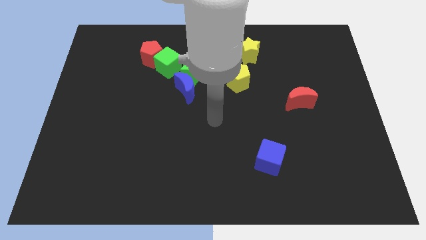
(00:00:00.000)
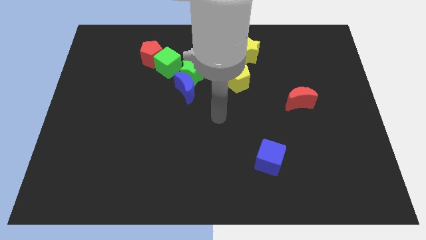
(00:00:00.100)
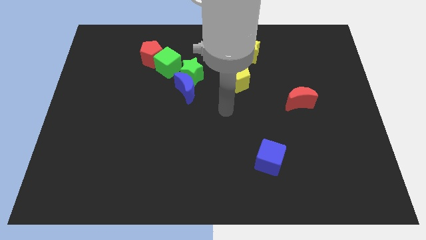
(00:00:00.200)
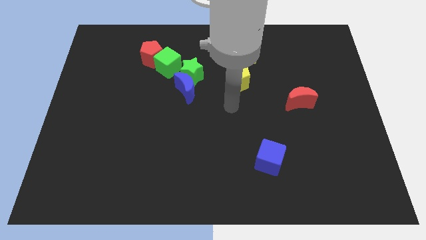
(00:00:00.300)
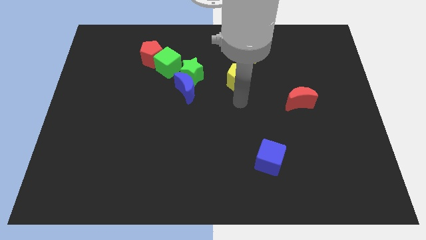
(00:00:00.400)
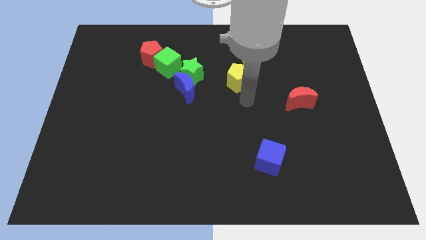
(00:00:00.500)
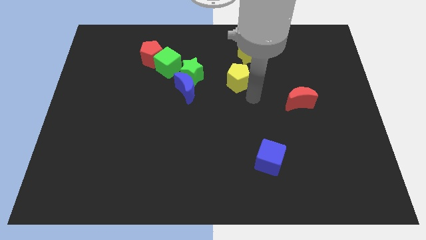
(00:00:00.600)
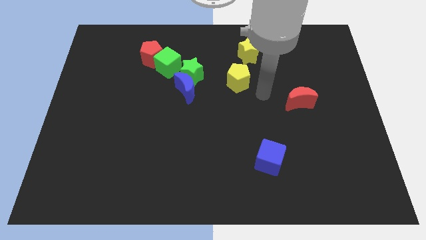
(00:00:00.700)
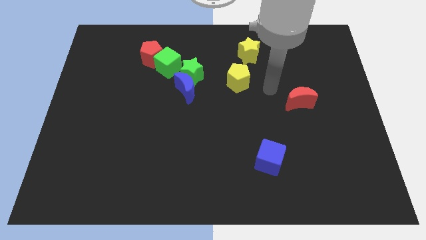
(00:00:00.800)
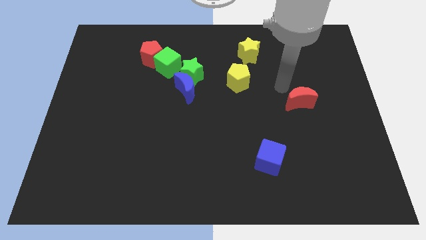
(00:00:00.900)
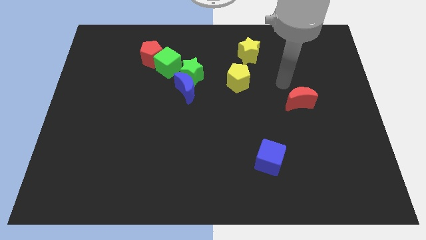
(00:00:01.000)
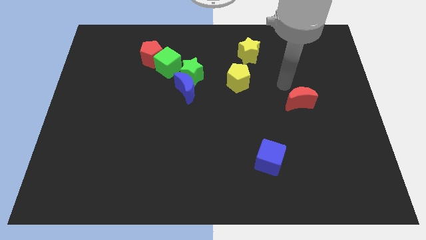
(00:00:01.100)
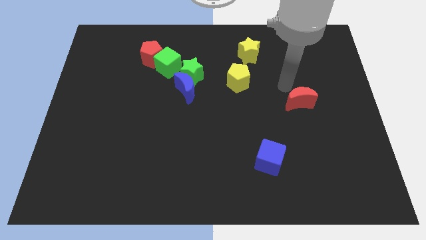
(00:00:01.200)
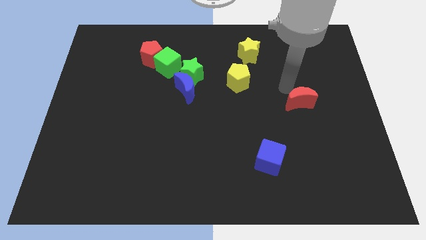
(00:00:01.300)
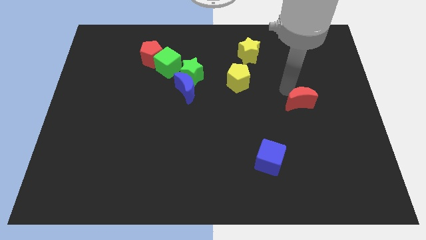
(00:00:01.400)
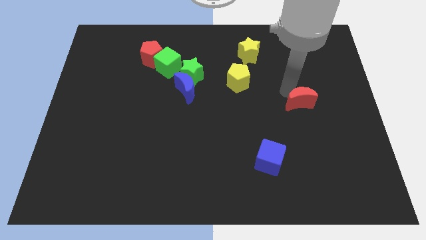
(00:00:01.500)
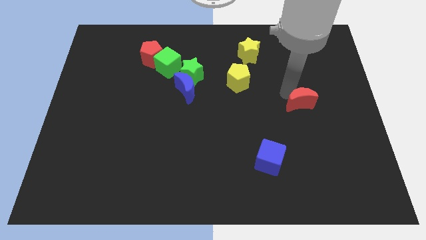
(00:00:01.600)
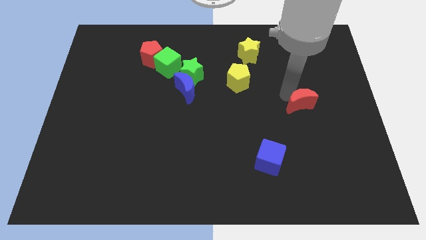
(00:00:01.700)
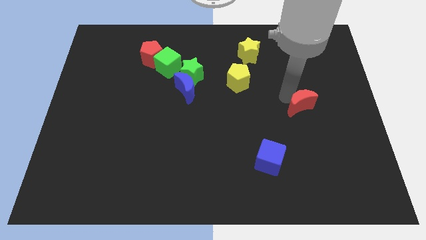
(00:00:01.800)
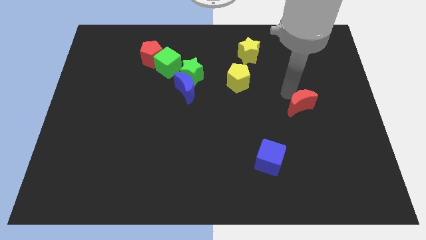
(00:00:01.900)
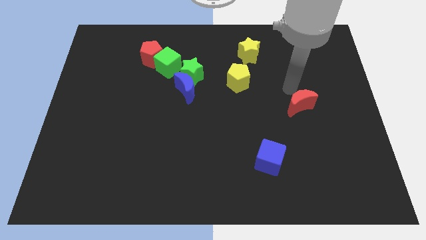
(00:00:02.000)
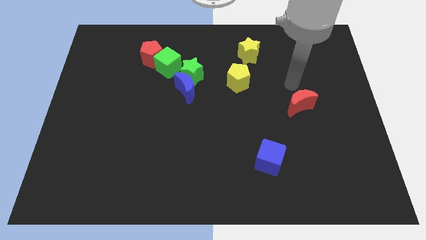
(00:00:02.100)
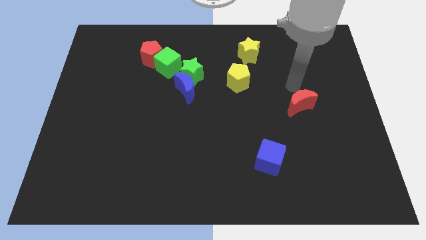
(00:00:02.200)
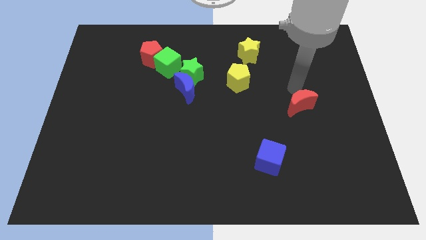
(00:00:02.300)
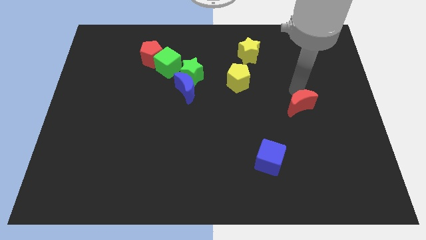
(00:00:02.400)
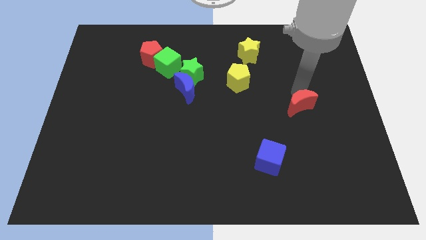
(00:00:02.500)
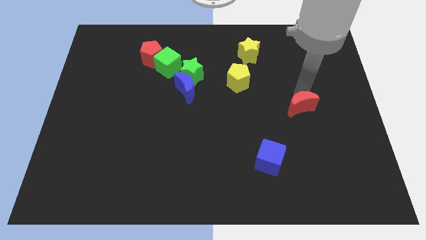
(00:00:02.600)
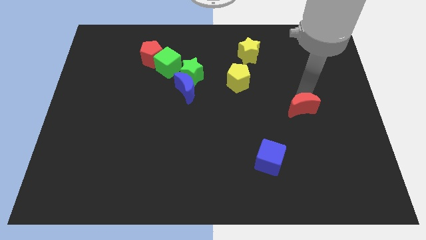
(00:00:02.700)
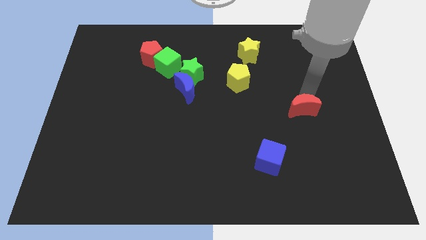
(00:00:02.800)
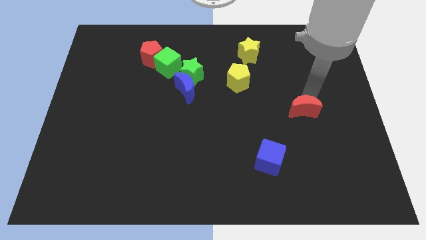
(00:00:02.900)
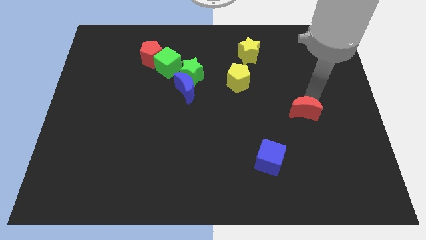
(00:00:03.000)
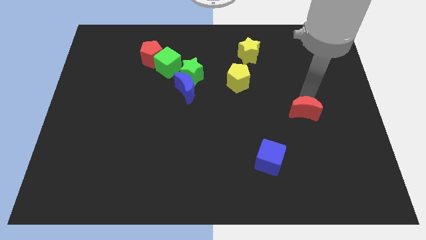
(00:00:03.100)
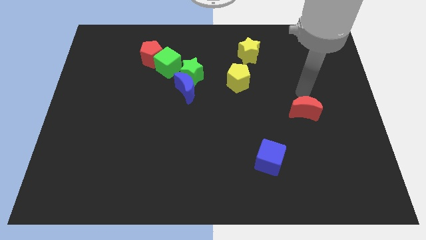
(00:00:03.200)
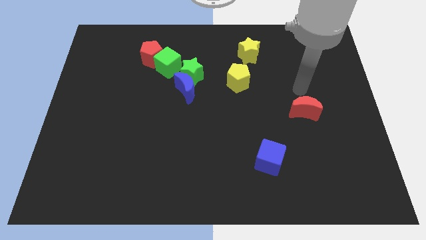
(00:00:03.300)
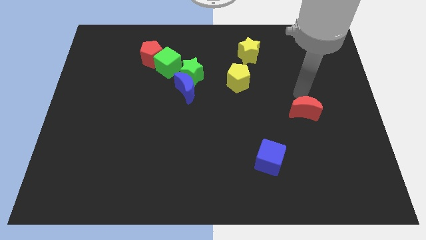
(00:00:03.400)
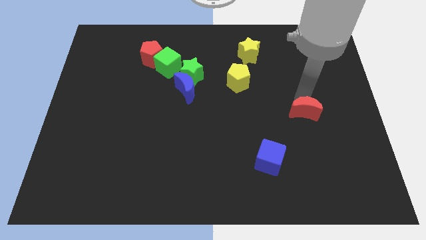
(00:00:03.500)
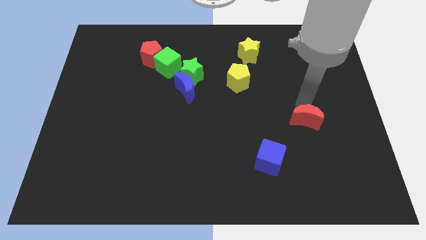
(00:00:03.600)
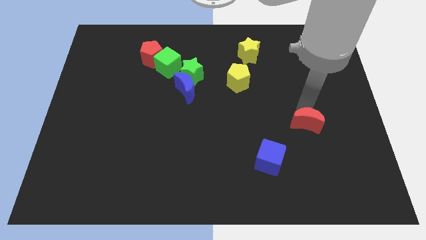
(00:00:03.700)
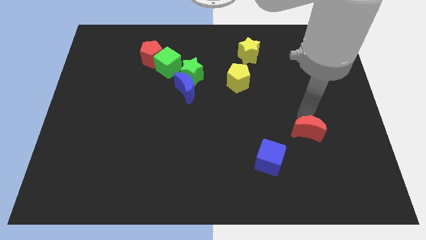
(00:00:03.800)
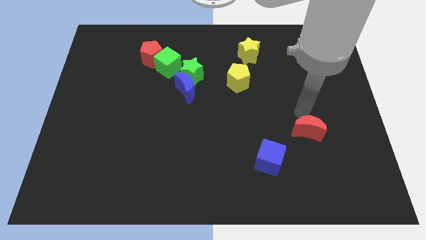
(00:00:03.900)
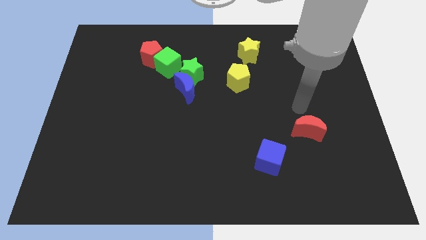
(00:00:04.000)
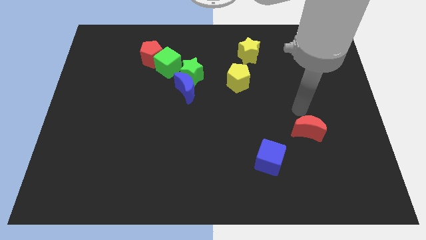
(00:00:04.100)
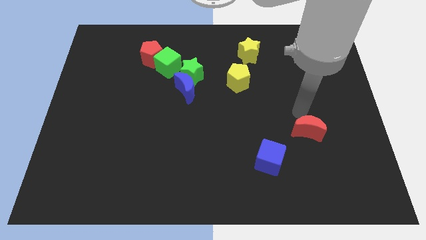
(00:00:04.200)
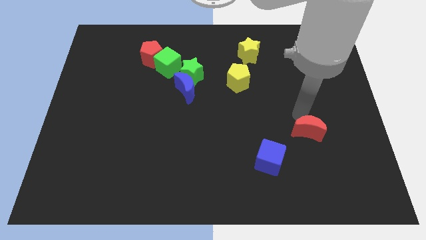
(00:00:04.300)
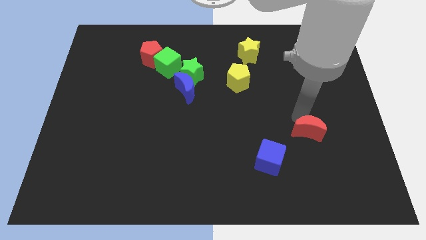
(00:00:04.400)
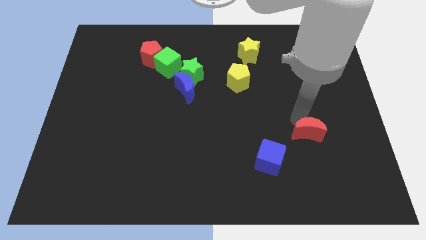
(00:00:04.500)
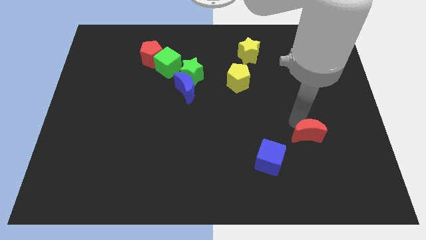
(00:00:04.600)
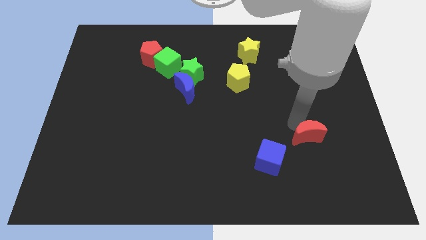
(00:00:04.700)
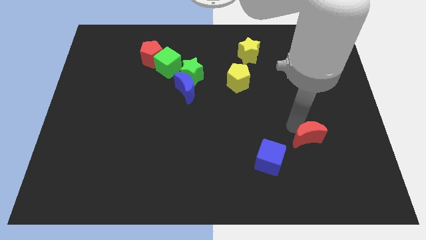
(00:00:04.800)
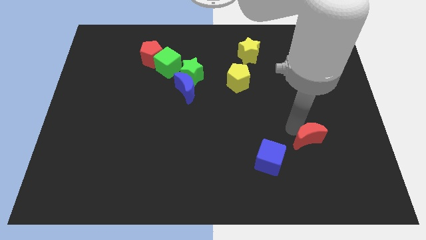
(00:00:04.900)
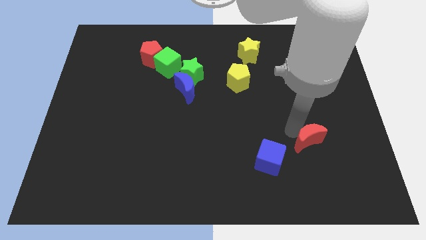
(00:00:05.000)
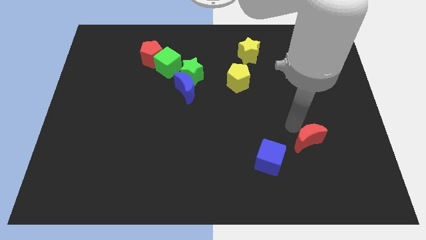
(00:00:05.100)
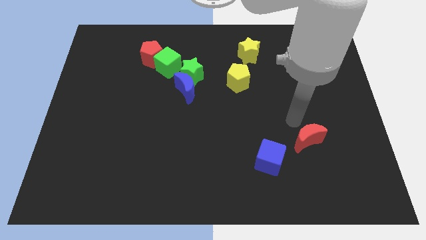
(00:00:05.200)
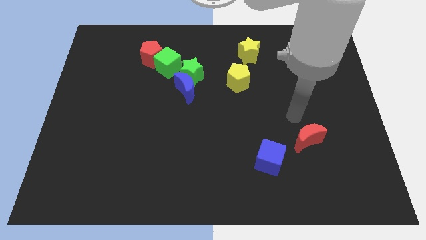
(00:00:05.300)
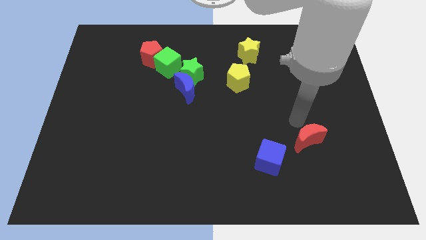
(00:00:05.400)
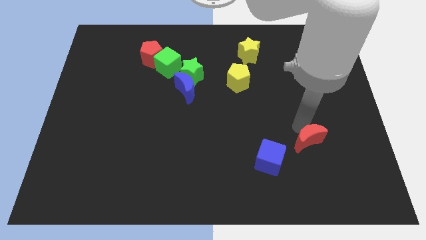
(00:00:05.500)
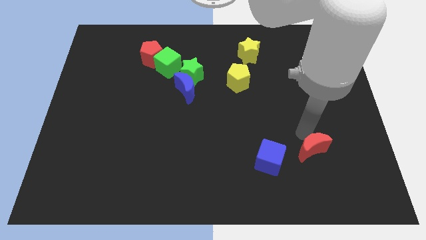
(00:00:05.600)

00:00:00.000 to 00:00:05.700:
slide the red moon right of the blue cube

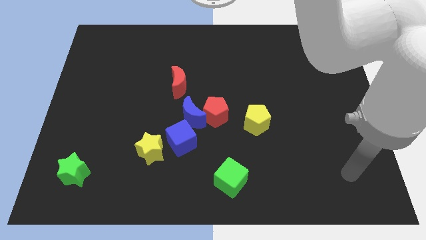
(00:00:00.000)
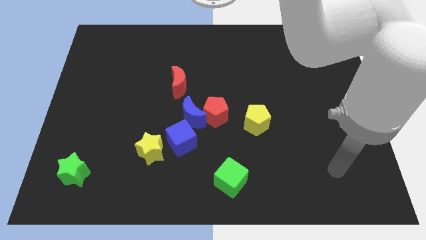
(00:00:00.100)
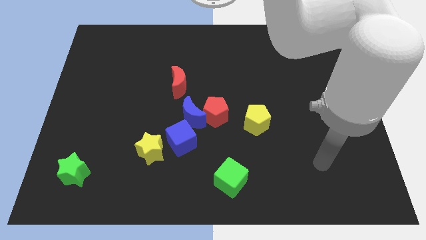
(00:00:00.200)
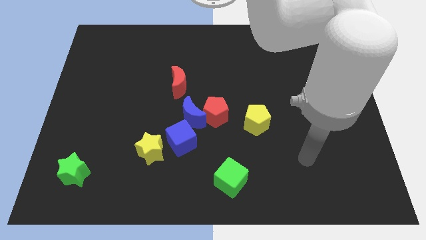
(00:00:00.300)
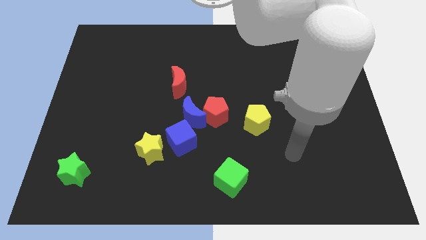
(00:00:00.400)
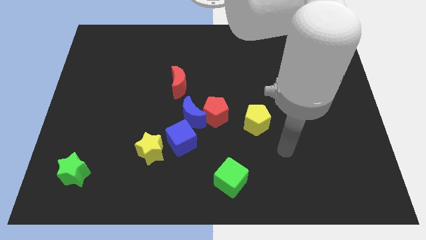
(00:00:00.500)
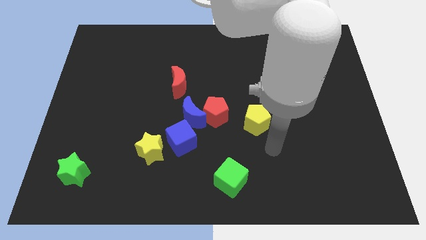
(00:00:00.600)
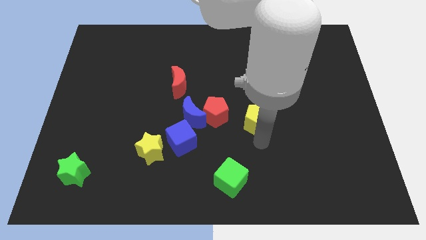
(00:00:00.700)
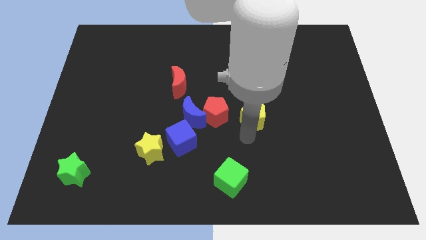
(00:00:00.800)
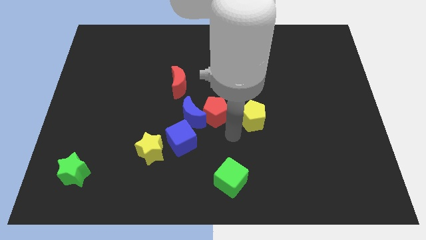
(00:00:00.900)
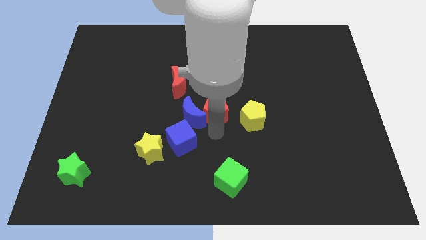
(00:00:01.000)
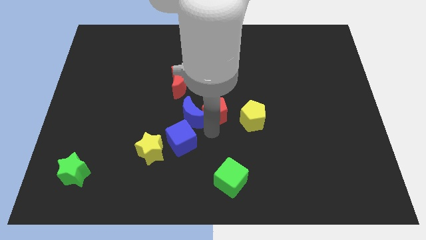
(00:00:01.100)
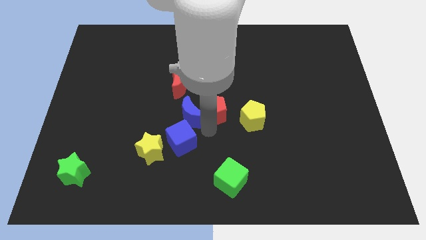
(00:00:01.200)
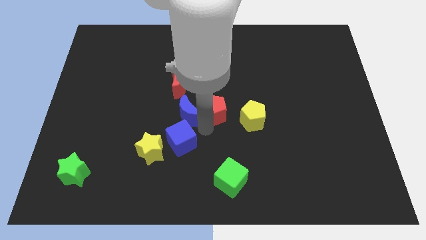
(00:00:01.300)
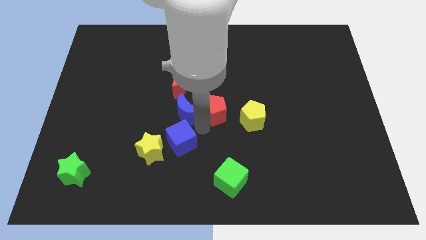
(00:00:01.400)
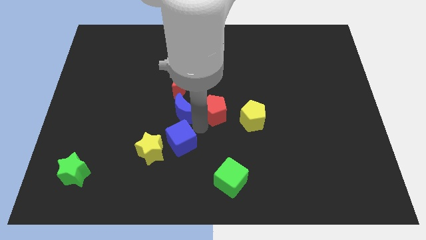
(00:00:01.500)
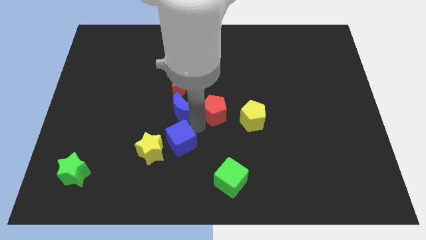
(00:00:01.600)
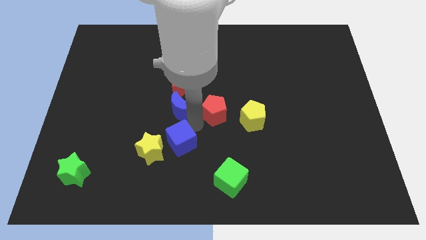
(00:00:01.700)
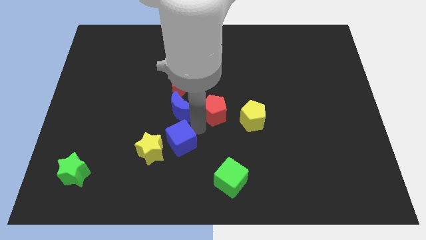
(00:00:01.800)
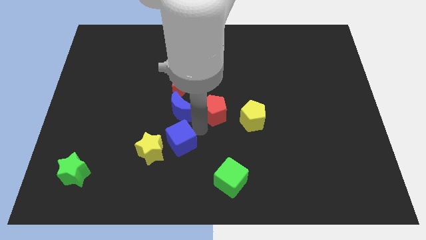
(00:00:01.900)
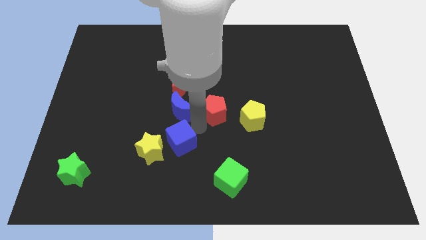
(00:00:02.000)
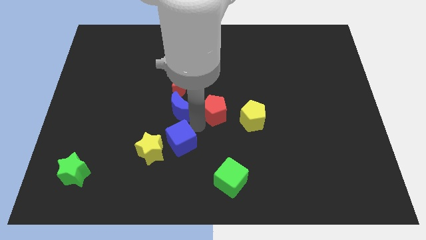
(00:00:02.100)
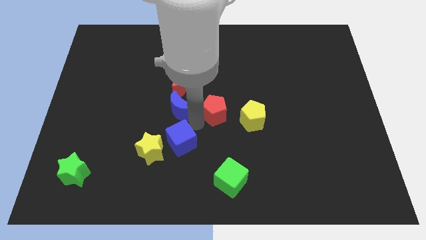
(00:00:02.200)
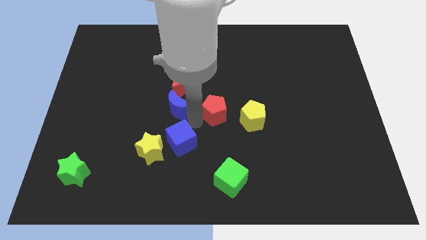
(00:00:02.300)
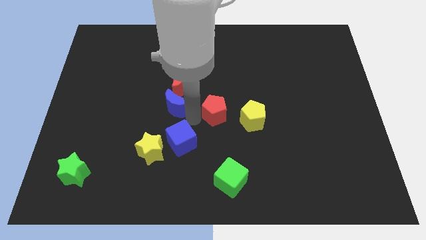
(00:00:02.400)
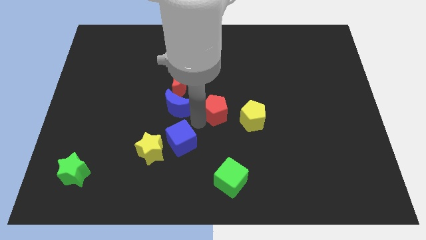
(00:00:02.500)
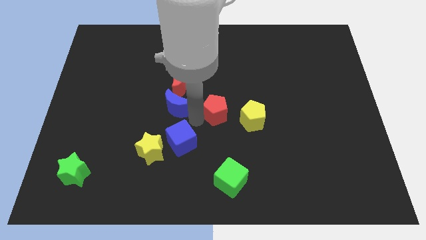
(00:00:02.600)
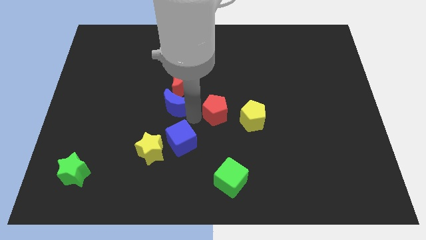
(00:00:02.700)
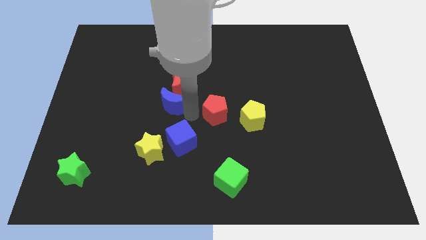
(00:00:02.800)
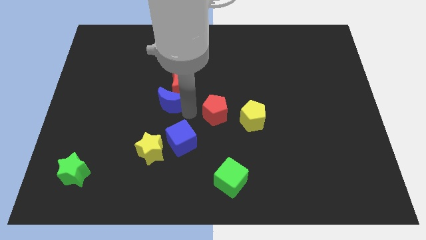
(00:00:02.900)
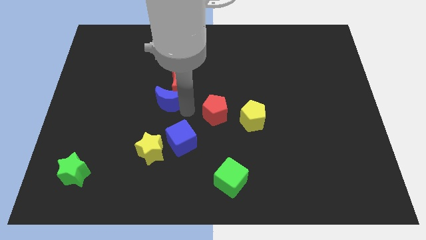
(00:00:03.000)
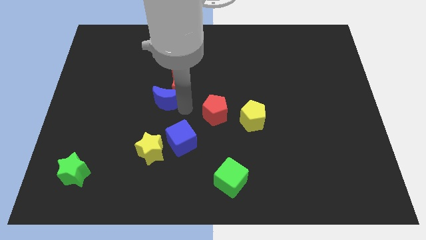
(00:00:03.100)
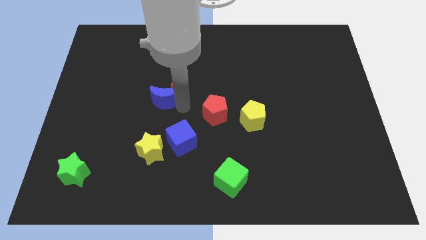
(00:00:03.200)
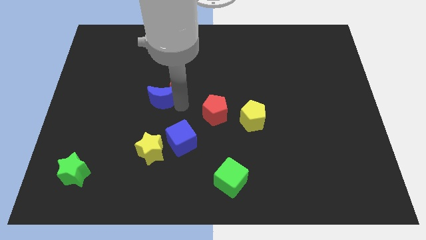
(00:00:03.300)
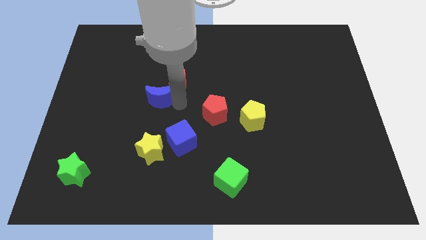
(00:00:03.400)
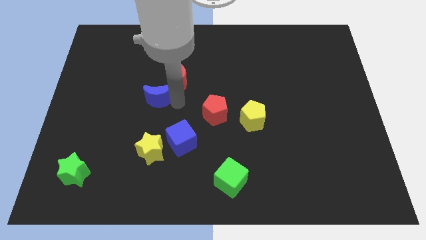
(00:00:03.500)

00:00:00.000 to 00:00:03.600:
move the blue moon to the left side of the red moon
